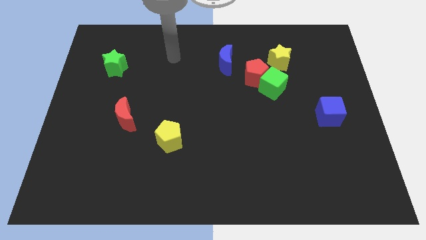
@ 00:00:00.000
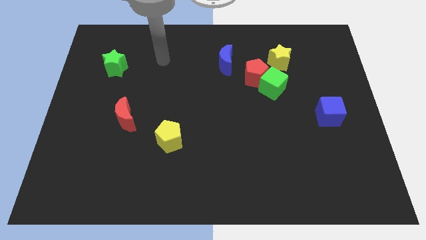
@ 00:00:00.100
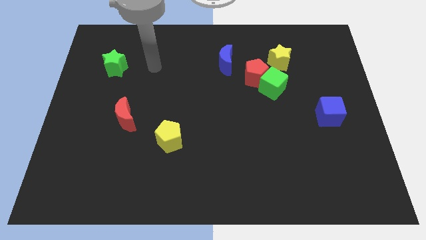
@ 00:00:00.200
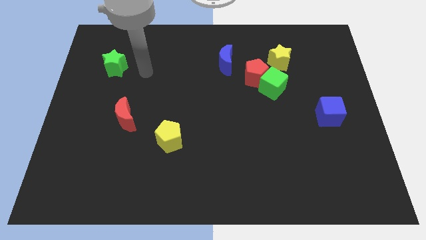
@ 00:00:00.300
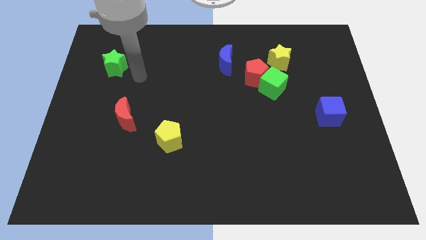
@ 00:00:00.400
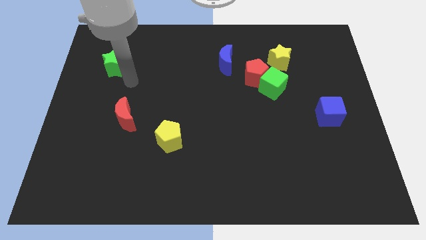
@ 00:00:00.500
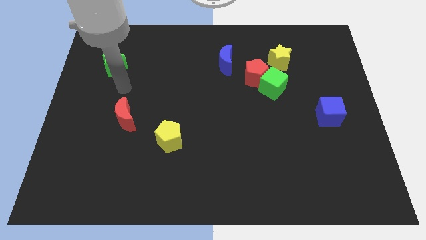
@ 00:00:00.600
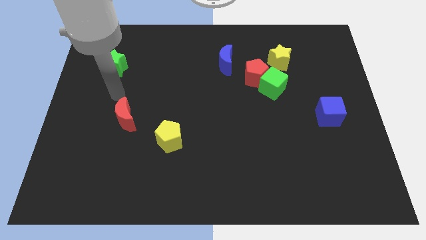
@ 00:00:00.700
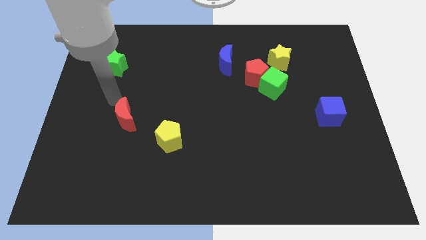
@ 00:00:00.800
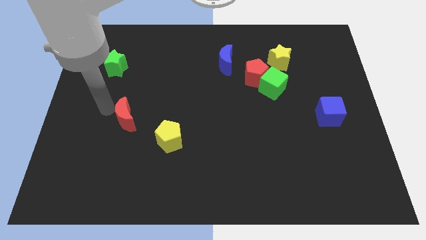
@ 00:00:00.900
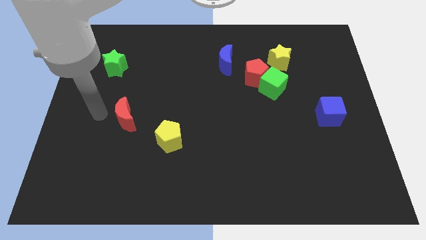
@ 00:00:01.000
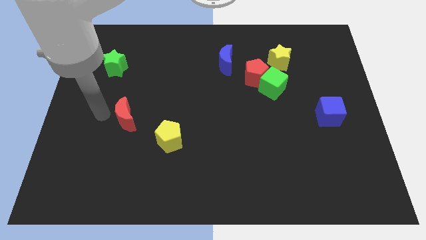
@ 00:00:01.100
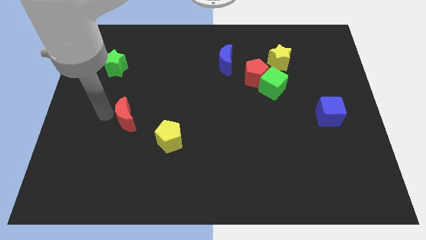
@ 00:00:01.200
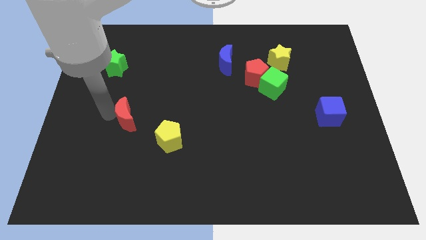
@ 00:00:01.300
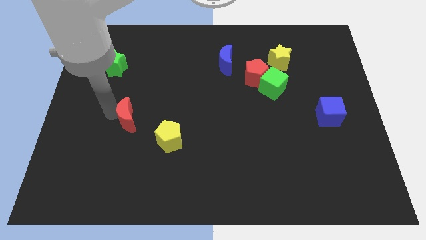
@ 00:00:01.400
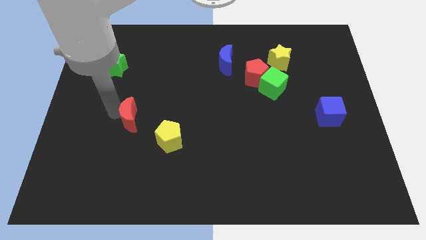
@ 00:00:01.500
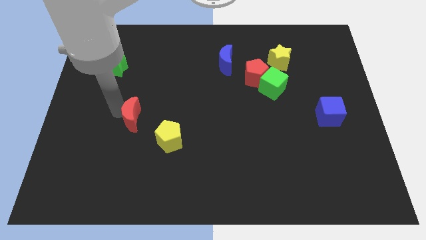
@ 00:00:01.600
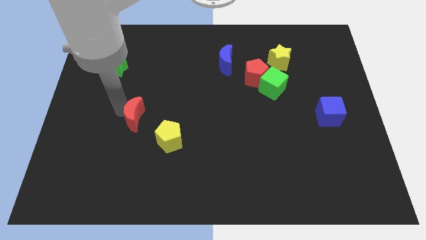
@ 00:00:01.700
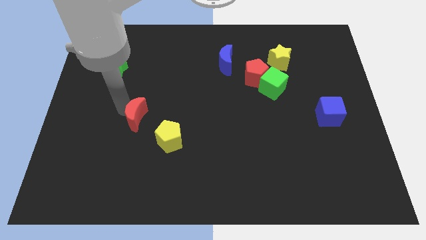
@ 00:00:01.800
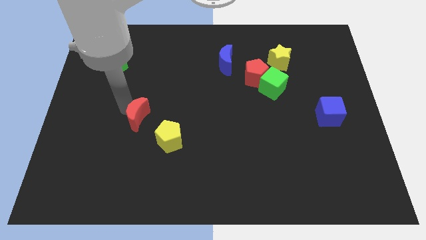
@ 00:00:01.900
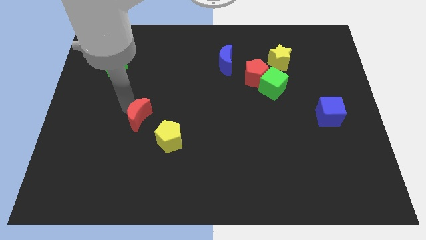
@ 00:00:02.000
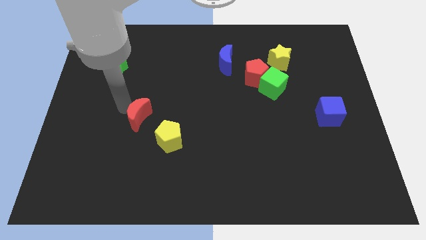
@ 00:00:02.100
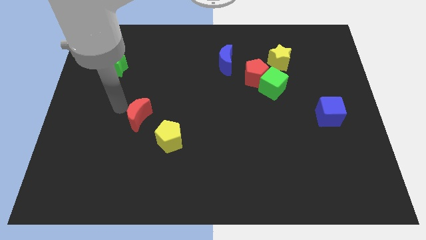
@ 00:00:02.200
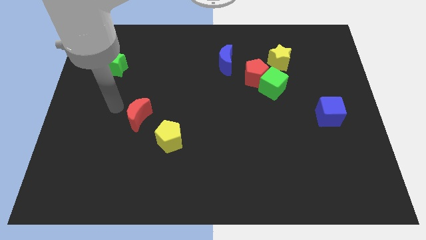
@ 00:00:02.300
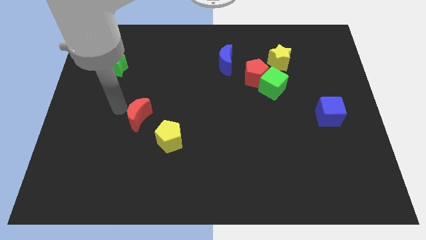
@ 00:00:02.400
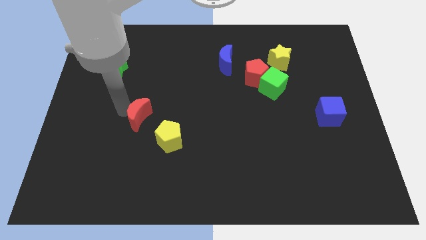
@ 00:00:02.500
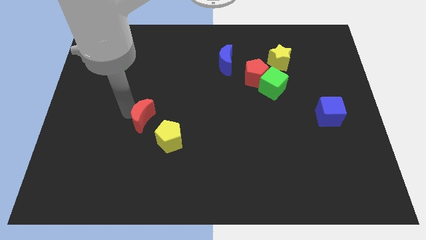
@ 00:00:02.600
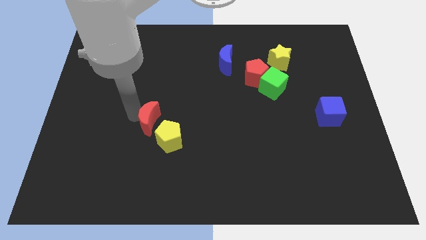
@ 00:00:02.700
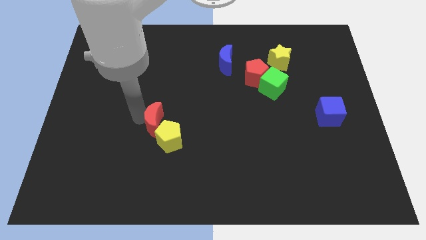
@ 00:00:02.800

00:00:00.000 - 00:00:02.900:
slightly move the red moon to the right

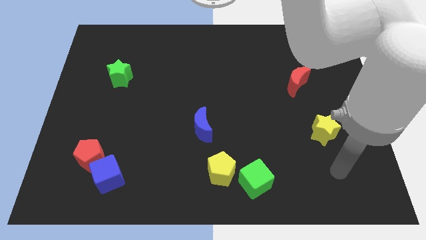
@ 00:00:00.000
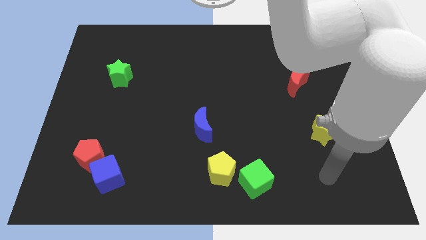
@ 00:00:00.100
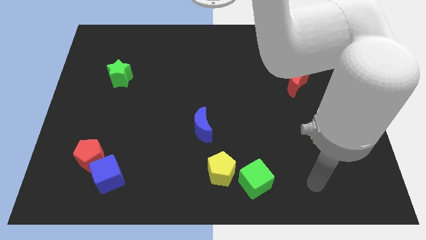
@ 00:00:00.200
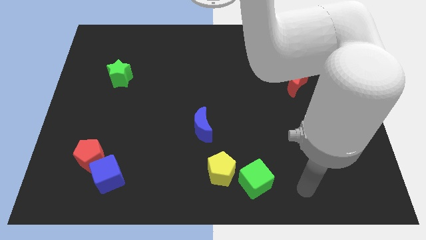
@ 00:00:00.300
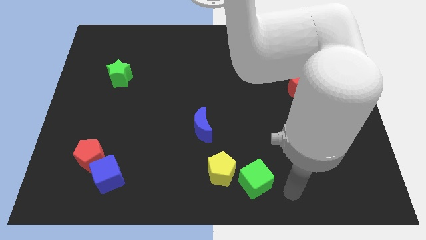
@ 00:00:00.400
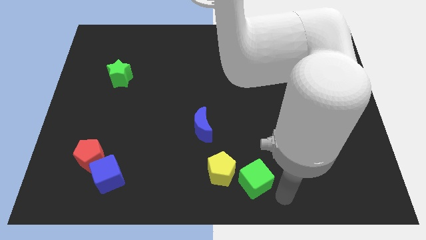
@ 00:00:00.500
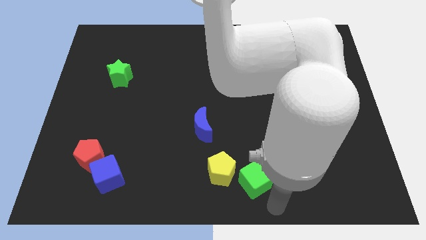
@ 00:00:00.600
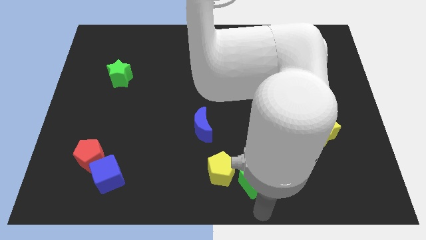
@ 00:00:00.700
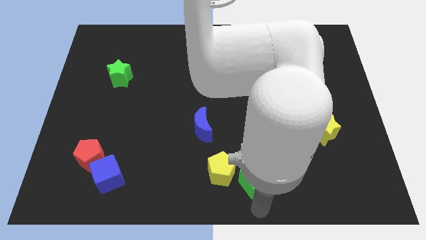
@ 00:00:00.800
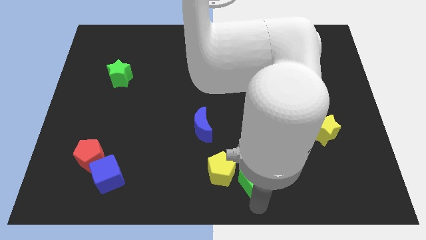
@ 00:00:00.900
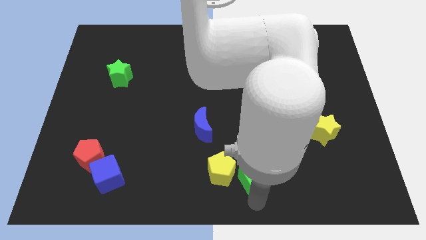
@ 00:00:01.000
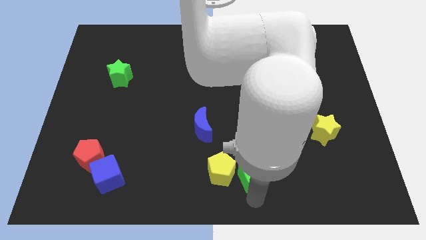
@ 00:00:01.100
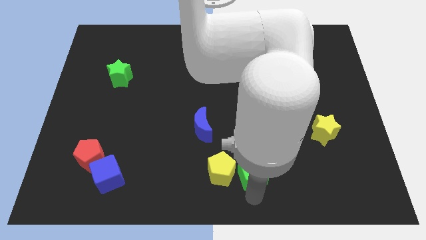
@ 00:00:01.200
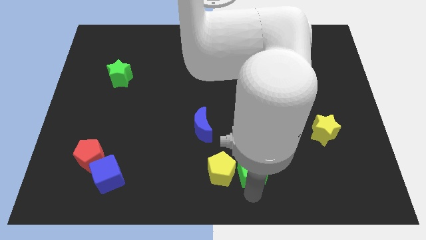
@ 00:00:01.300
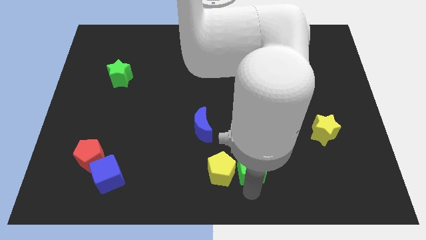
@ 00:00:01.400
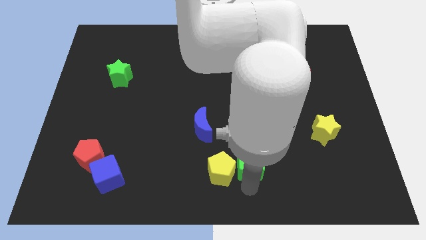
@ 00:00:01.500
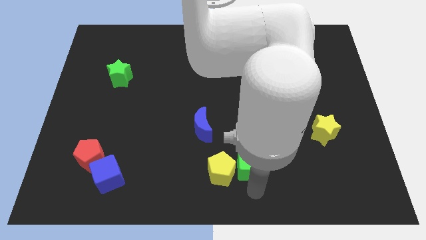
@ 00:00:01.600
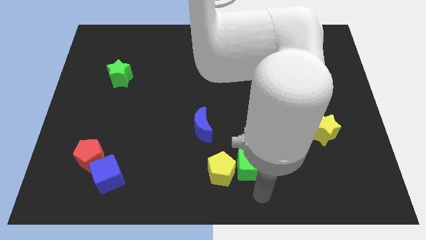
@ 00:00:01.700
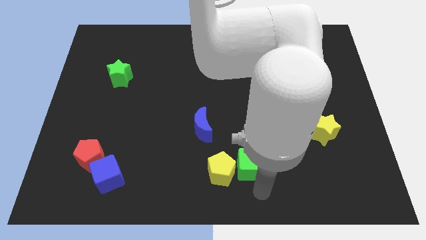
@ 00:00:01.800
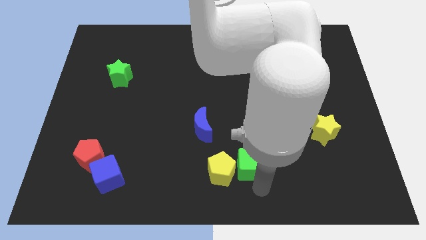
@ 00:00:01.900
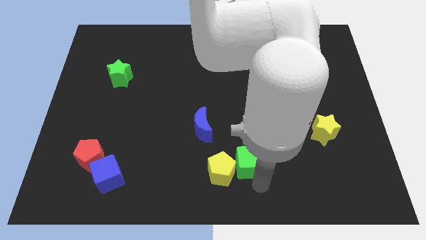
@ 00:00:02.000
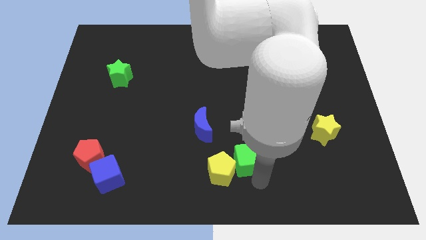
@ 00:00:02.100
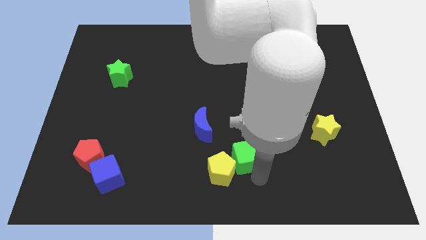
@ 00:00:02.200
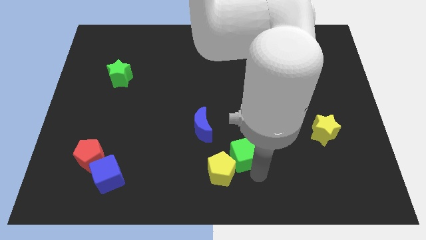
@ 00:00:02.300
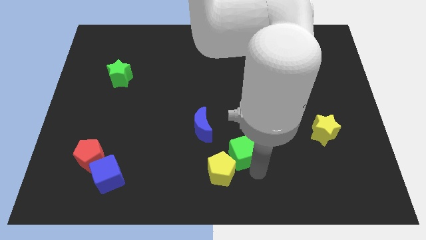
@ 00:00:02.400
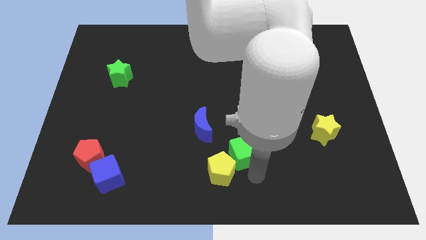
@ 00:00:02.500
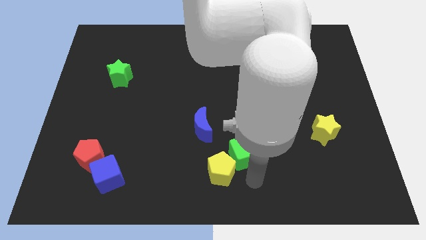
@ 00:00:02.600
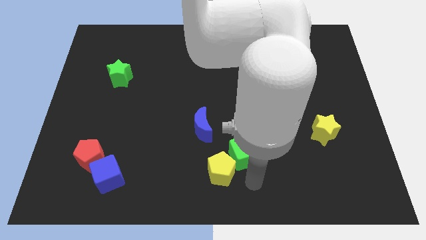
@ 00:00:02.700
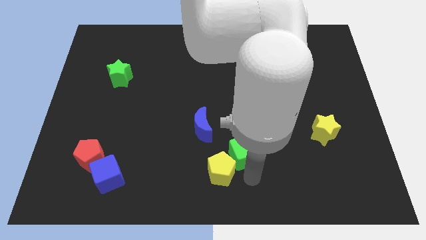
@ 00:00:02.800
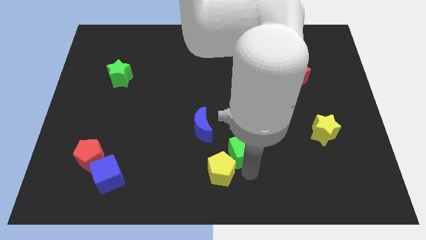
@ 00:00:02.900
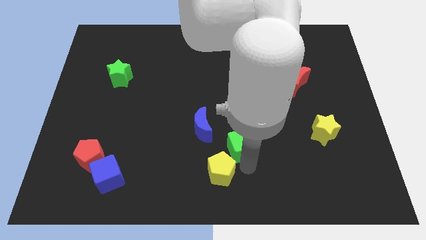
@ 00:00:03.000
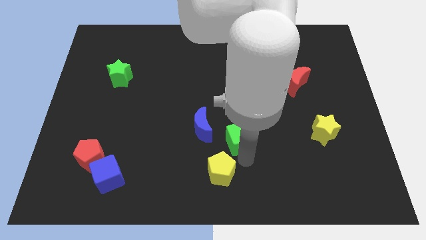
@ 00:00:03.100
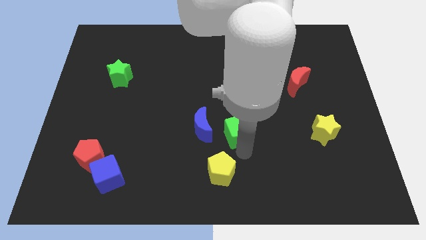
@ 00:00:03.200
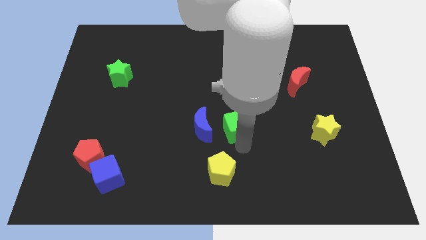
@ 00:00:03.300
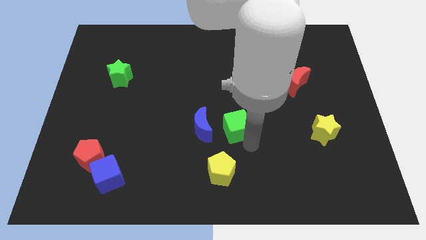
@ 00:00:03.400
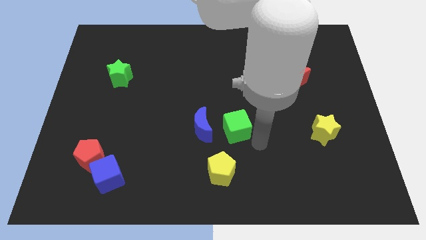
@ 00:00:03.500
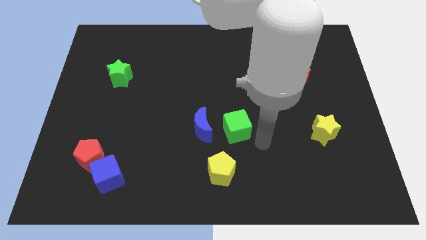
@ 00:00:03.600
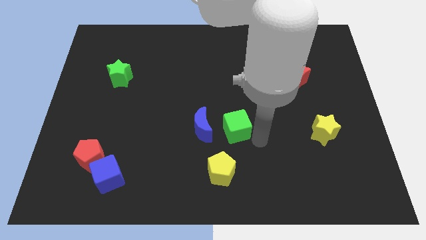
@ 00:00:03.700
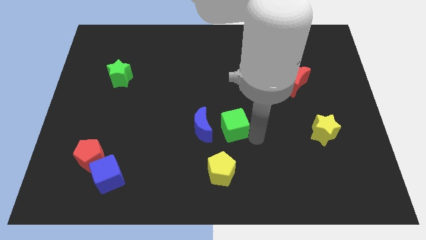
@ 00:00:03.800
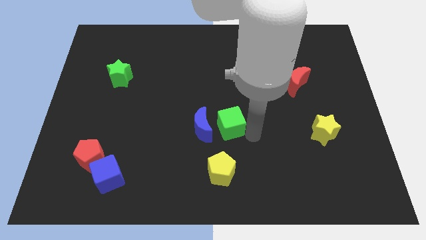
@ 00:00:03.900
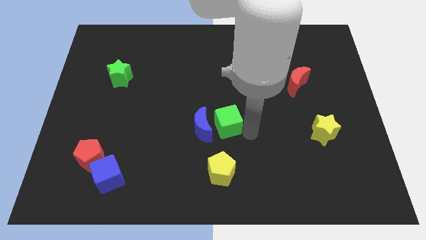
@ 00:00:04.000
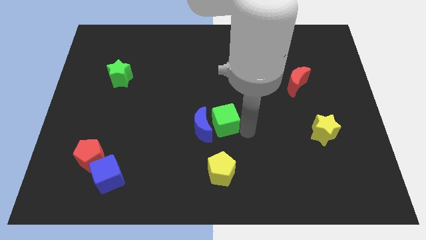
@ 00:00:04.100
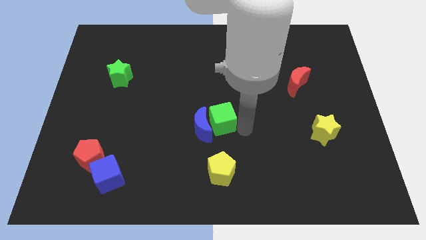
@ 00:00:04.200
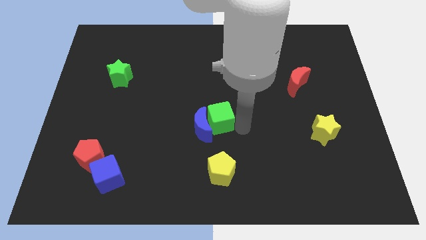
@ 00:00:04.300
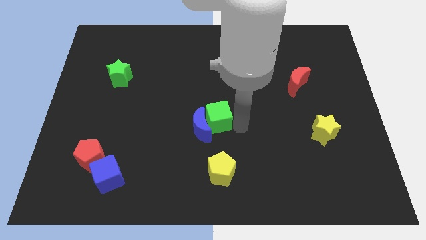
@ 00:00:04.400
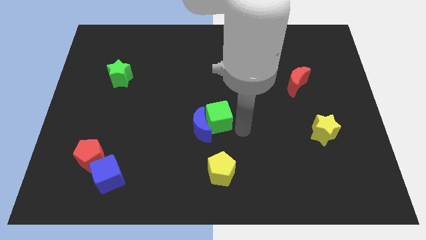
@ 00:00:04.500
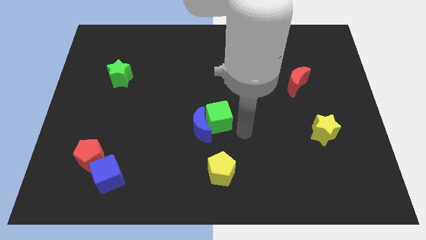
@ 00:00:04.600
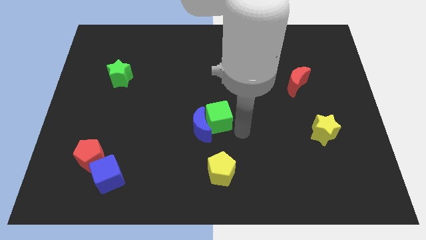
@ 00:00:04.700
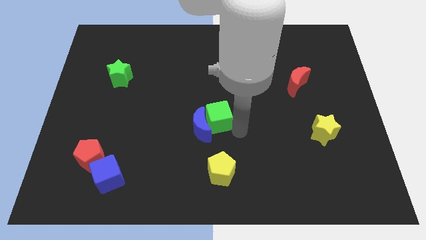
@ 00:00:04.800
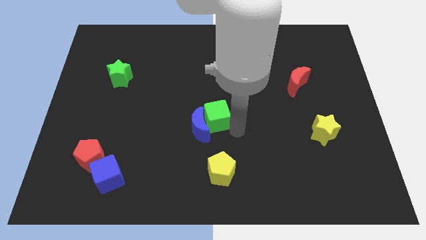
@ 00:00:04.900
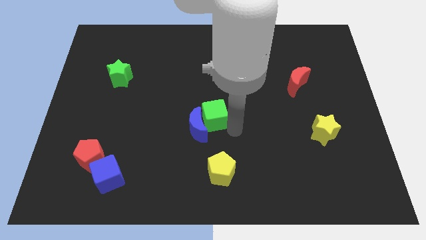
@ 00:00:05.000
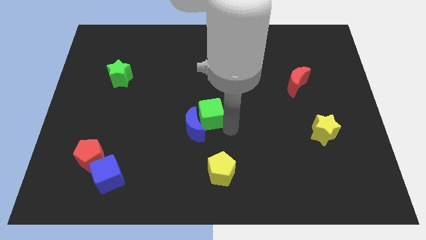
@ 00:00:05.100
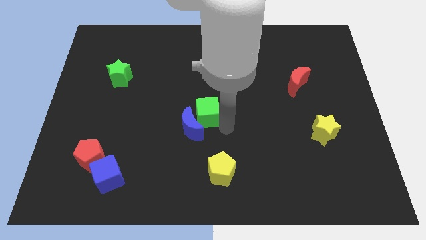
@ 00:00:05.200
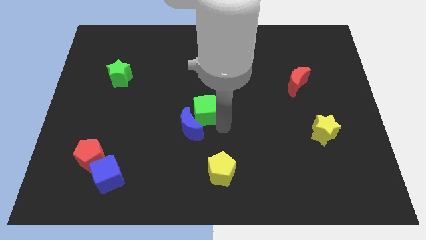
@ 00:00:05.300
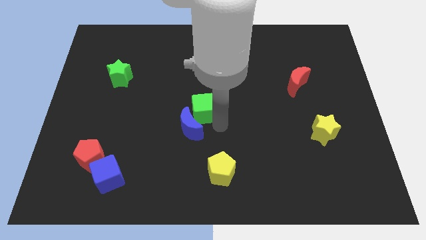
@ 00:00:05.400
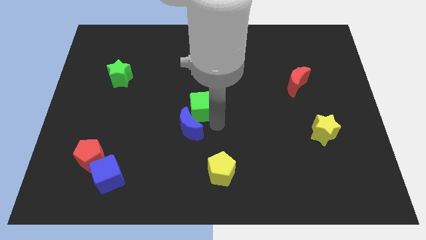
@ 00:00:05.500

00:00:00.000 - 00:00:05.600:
push the green cube diagonally up and left
